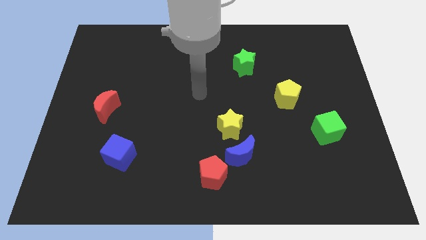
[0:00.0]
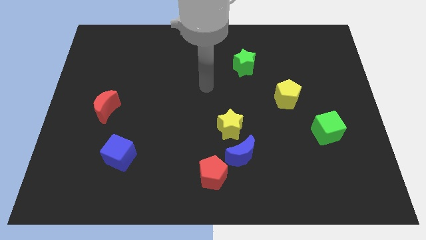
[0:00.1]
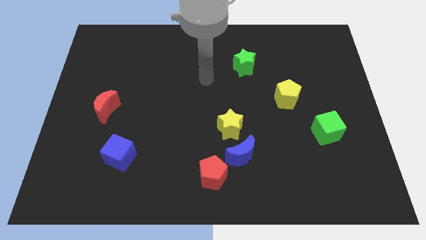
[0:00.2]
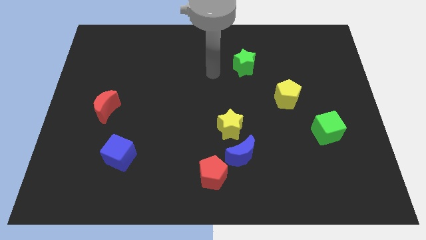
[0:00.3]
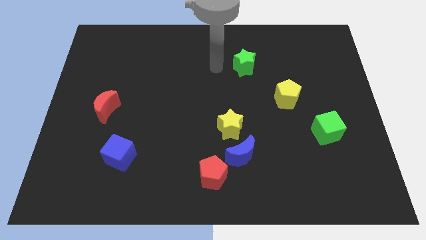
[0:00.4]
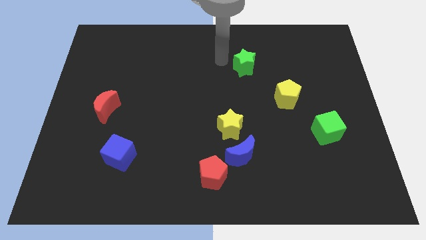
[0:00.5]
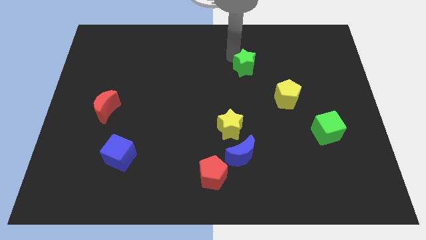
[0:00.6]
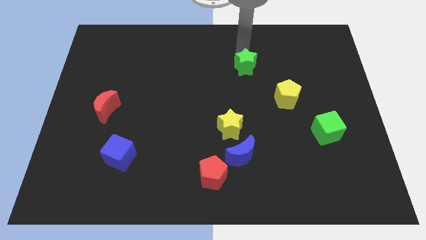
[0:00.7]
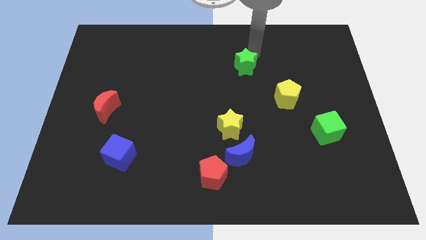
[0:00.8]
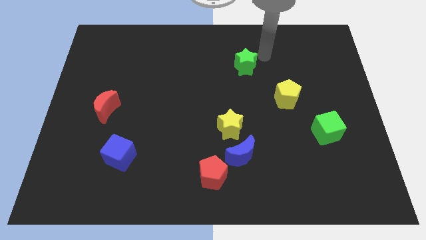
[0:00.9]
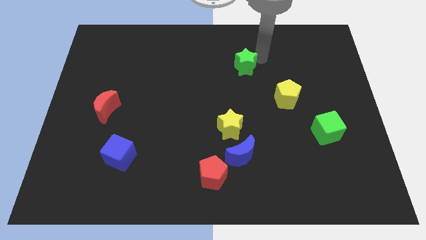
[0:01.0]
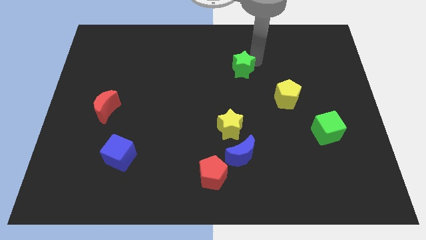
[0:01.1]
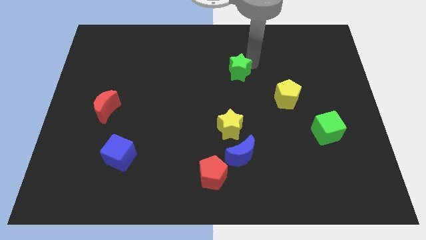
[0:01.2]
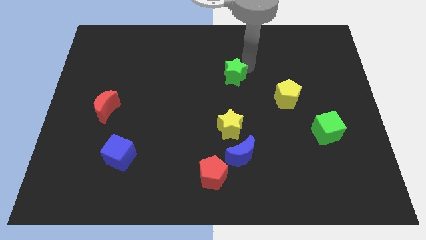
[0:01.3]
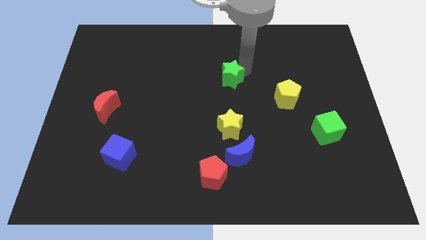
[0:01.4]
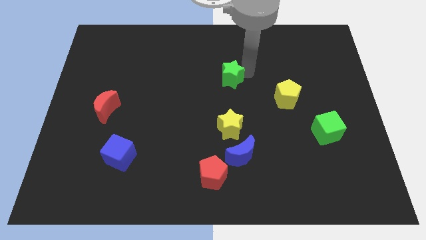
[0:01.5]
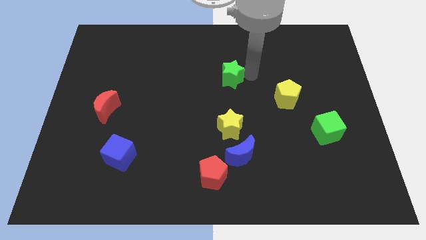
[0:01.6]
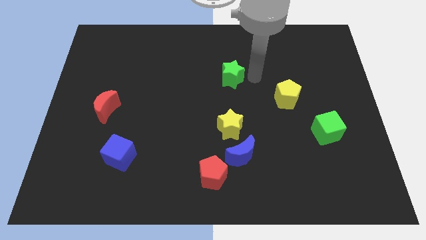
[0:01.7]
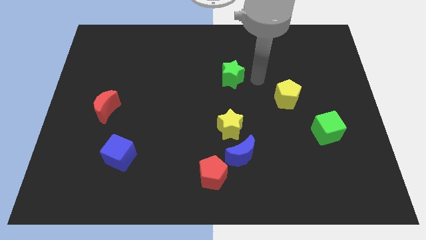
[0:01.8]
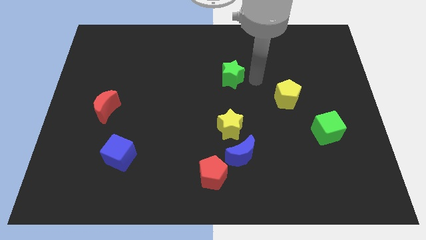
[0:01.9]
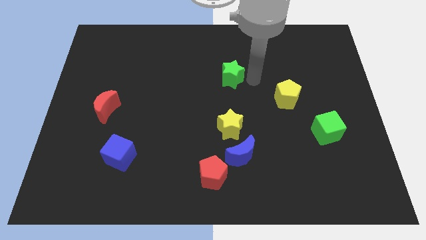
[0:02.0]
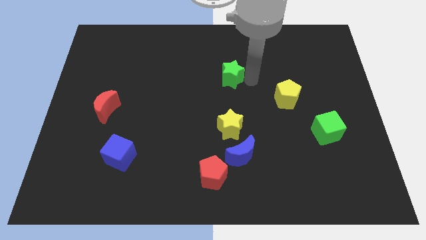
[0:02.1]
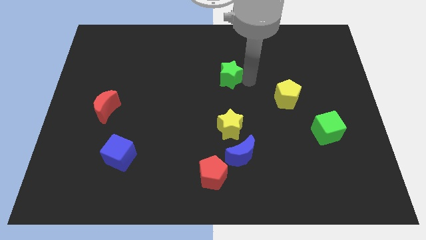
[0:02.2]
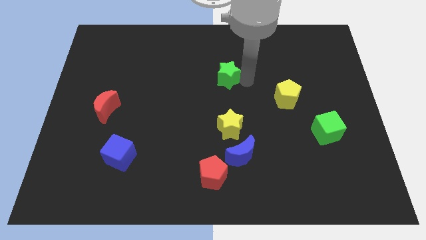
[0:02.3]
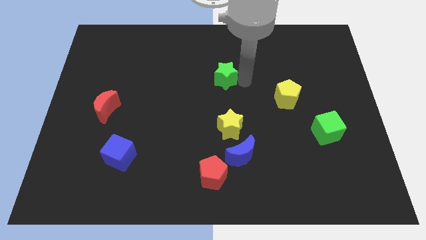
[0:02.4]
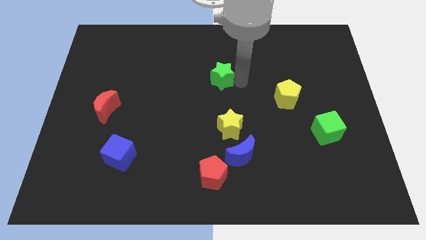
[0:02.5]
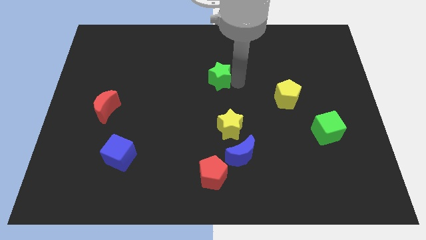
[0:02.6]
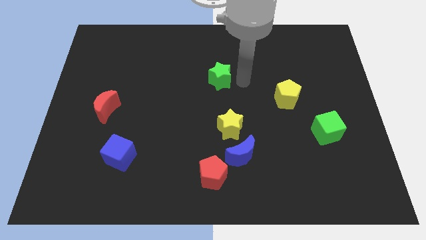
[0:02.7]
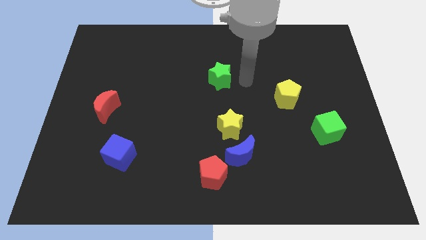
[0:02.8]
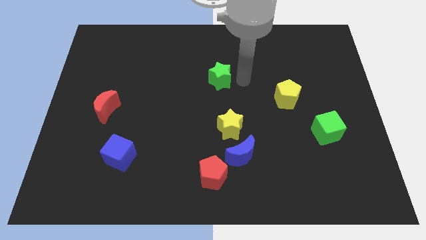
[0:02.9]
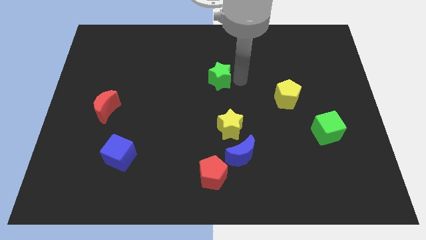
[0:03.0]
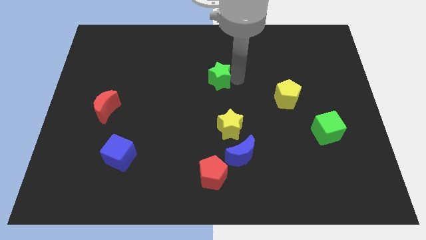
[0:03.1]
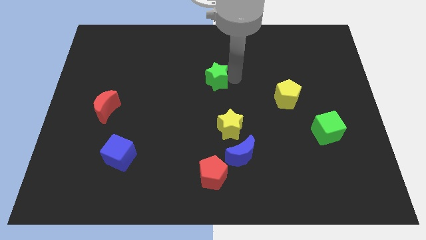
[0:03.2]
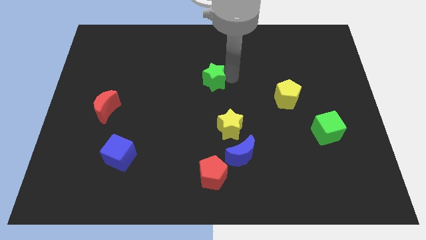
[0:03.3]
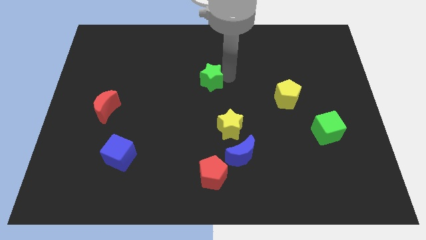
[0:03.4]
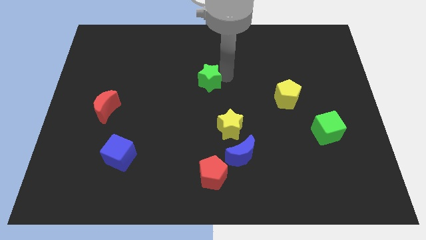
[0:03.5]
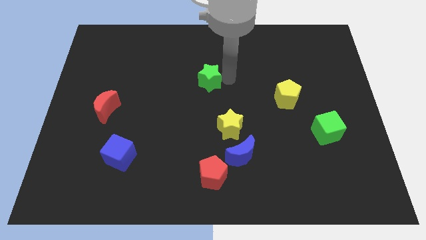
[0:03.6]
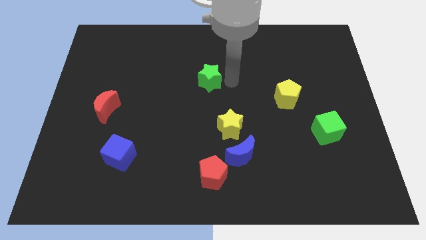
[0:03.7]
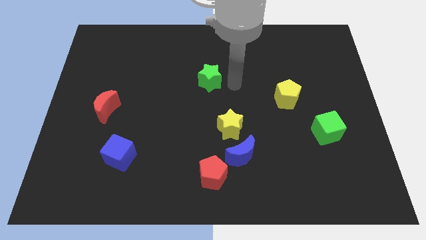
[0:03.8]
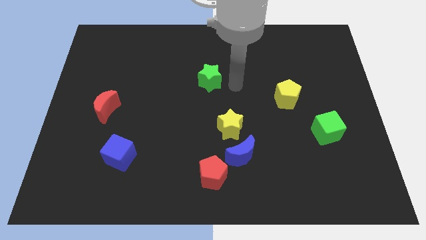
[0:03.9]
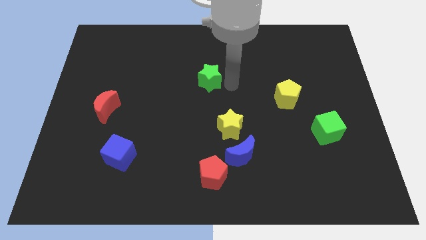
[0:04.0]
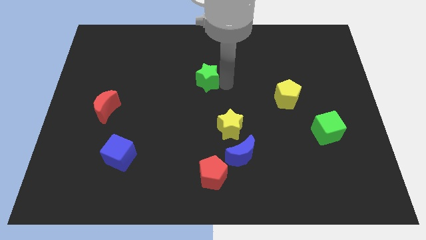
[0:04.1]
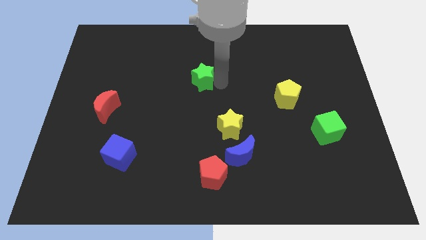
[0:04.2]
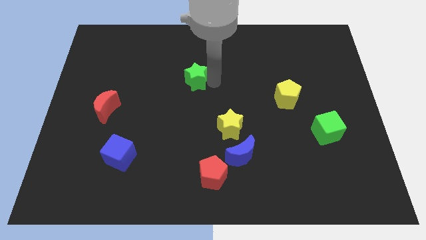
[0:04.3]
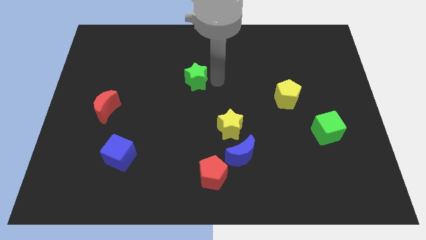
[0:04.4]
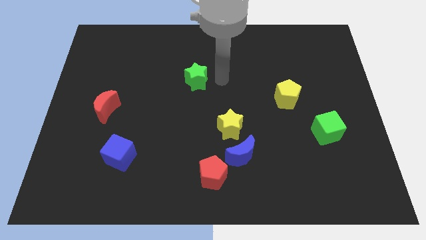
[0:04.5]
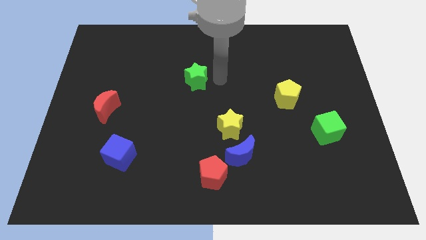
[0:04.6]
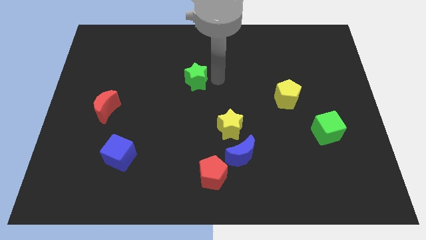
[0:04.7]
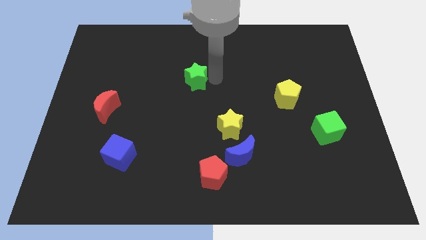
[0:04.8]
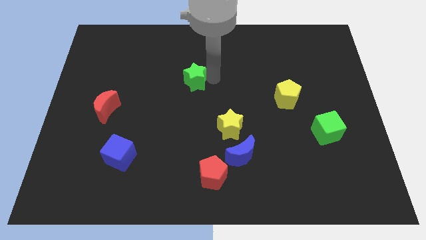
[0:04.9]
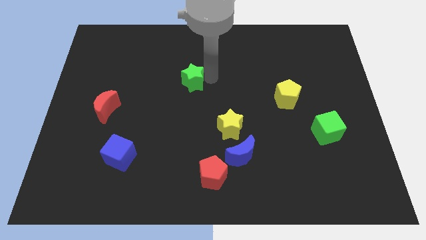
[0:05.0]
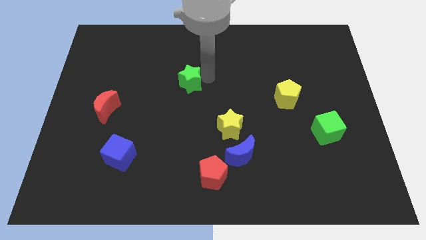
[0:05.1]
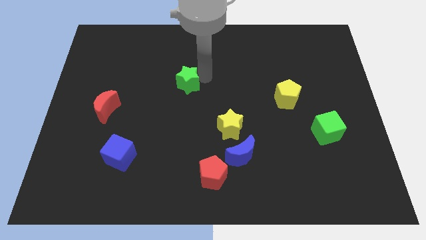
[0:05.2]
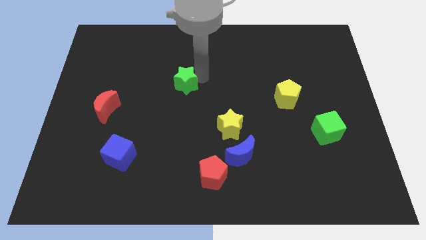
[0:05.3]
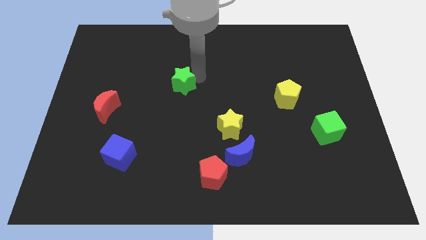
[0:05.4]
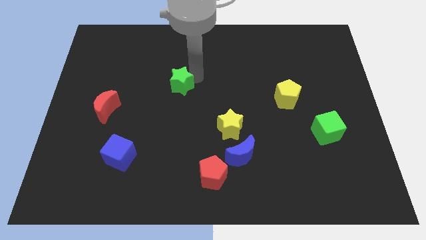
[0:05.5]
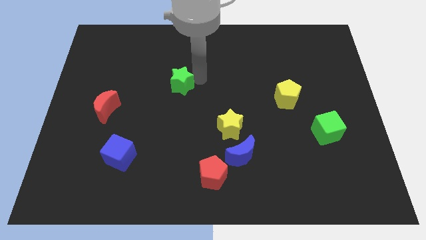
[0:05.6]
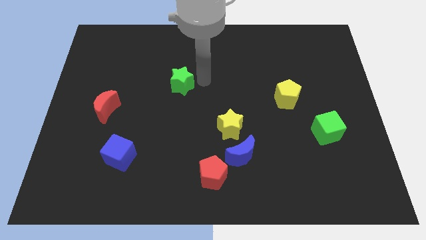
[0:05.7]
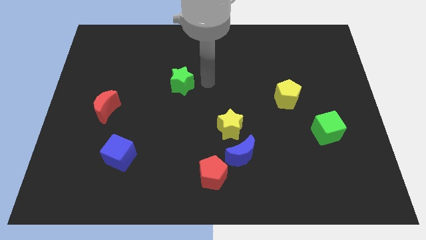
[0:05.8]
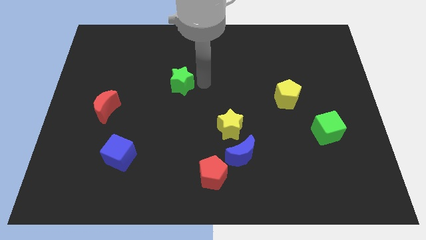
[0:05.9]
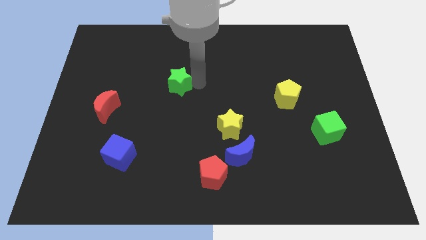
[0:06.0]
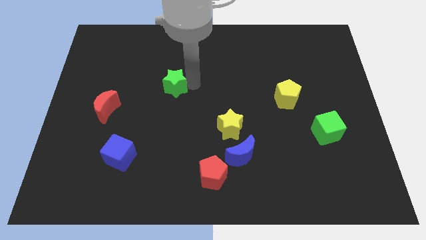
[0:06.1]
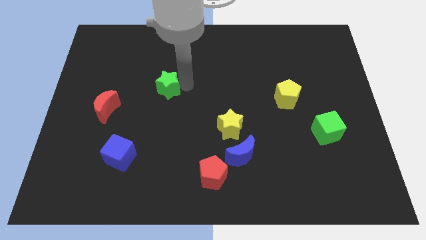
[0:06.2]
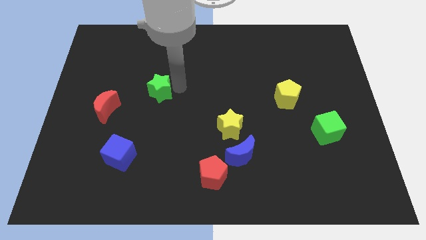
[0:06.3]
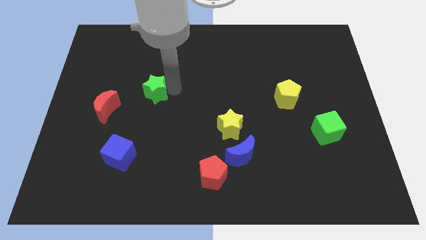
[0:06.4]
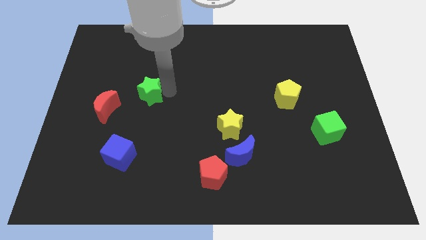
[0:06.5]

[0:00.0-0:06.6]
slide the green star diagonally up and to the right of the red moon

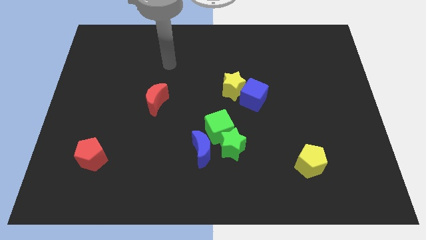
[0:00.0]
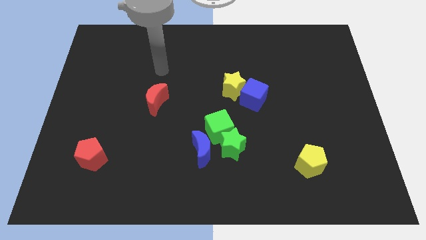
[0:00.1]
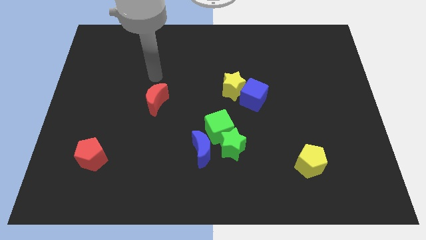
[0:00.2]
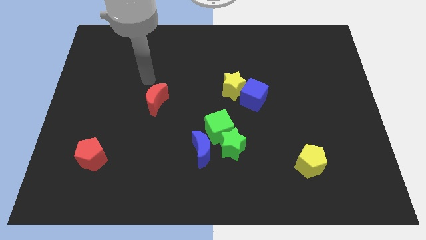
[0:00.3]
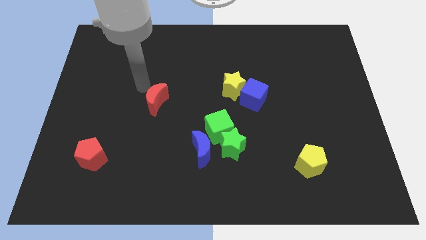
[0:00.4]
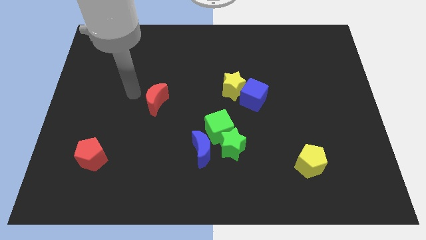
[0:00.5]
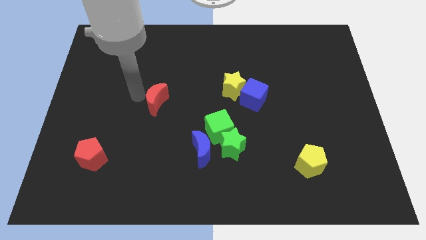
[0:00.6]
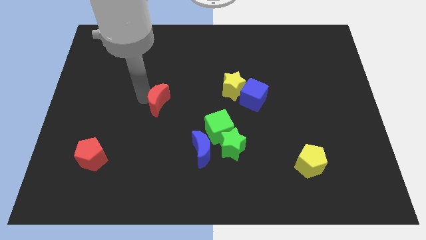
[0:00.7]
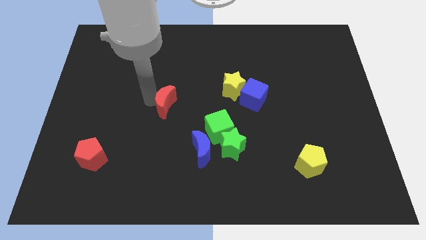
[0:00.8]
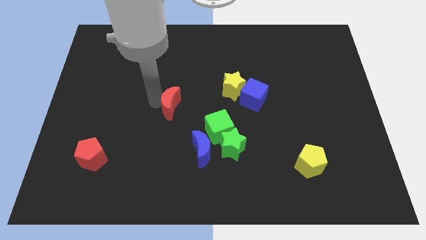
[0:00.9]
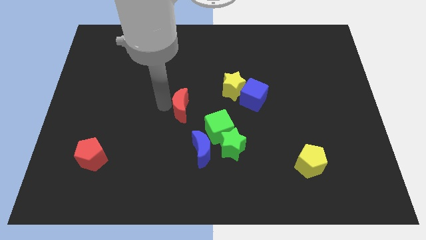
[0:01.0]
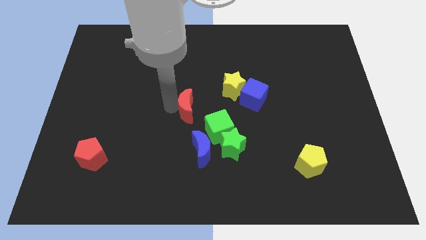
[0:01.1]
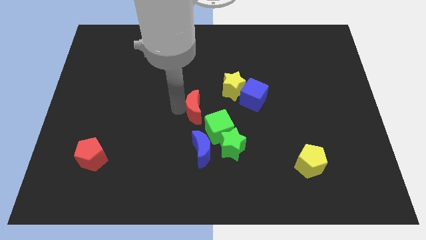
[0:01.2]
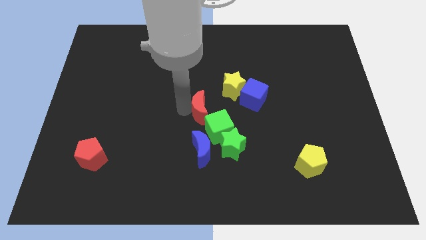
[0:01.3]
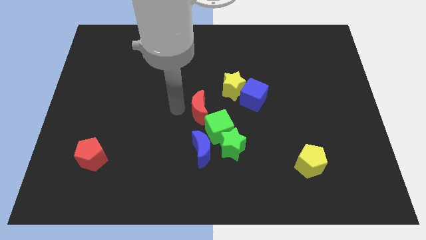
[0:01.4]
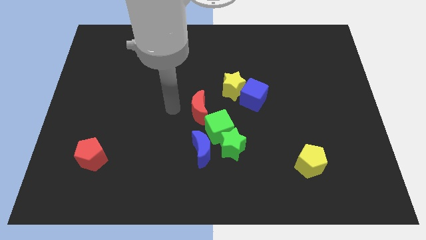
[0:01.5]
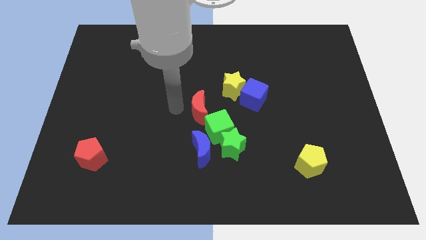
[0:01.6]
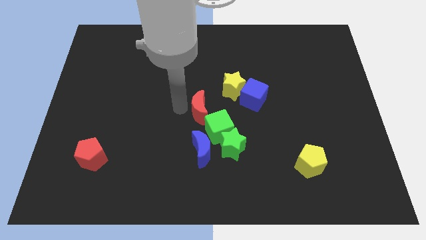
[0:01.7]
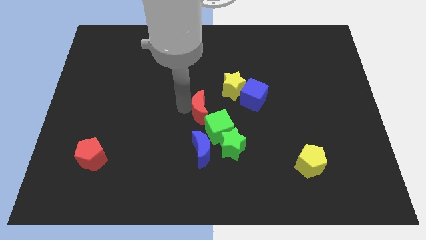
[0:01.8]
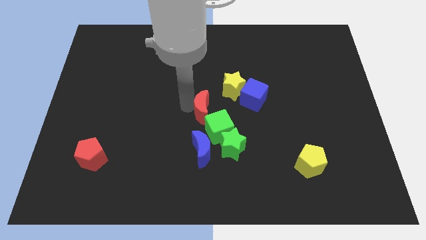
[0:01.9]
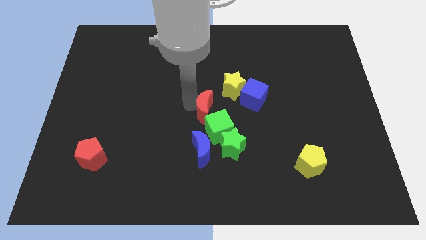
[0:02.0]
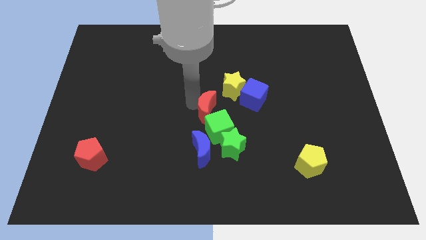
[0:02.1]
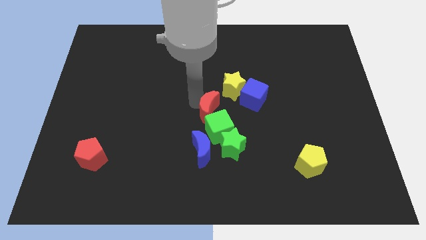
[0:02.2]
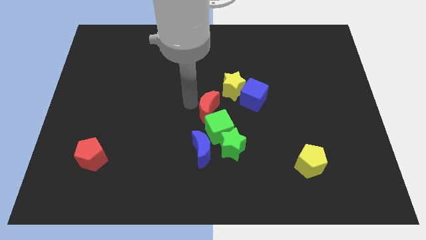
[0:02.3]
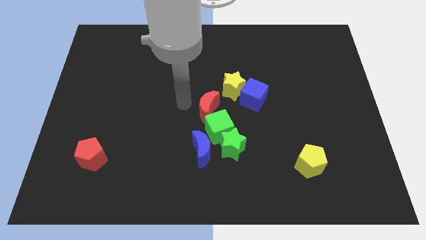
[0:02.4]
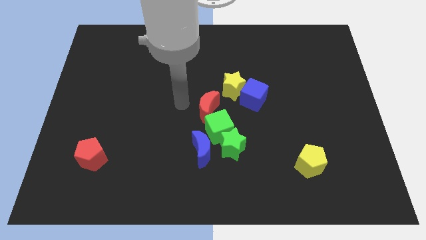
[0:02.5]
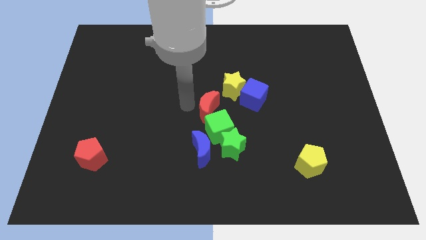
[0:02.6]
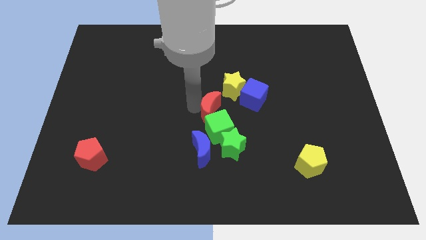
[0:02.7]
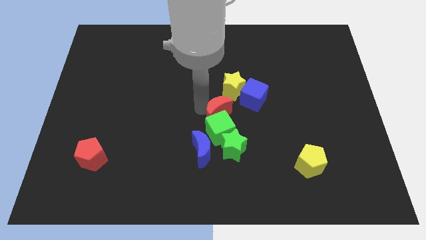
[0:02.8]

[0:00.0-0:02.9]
push the red moon to the bottom left side of the blue cube
